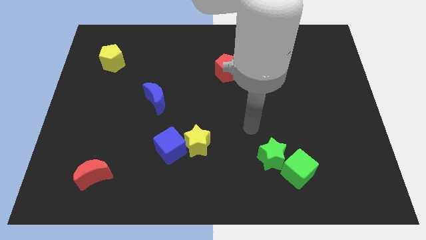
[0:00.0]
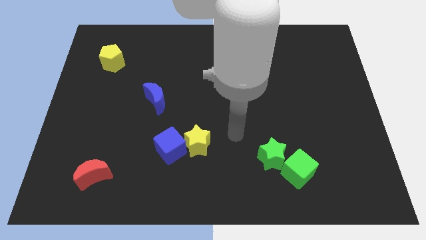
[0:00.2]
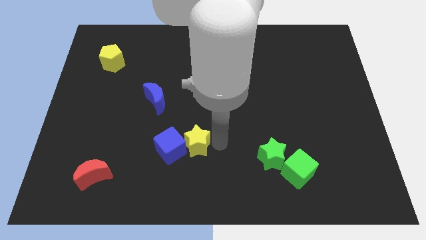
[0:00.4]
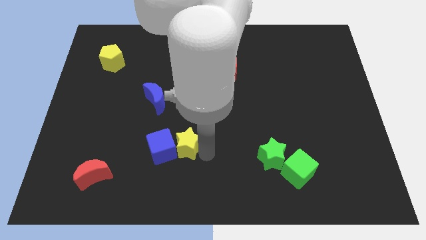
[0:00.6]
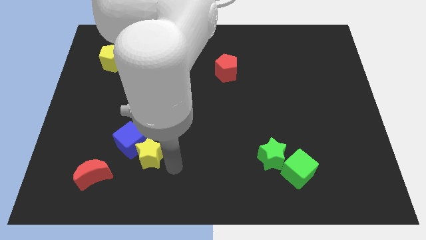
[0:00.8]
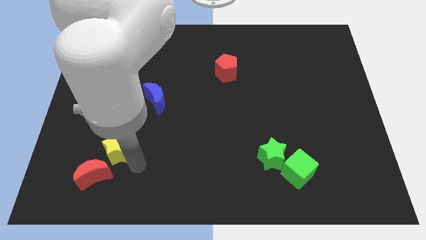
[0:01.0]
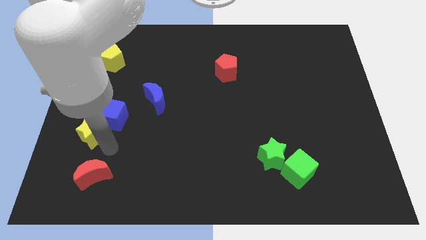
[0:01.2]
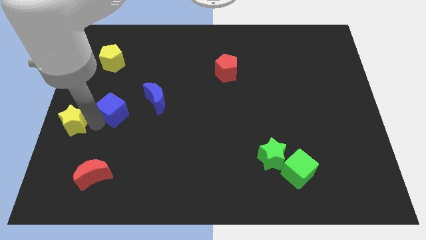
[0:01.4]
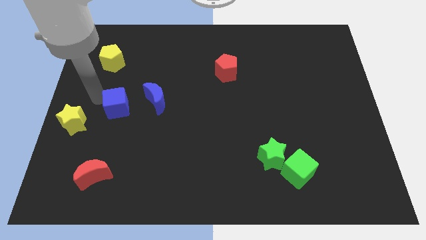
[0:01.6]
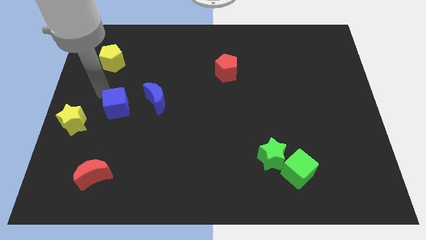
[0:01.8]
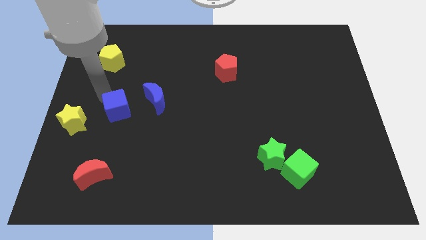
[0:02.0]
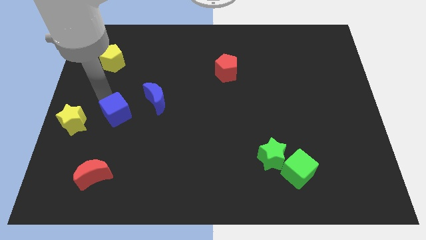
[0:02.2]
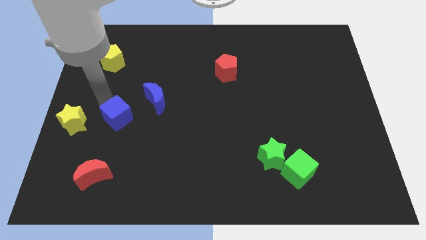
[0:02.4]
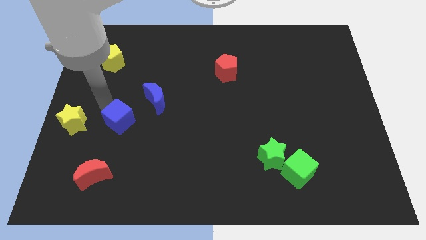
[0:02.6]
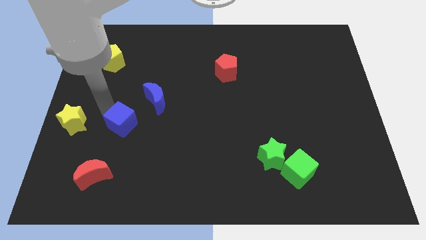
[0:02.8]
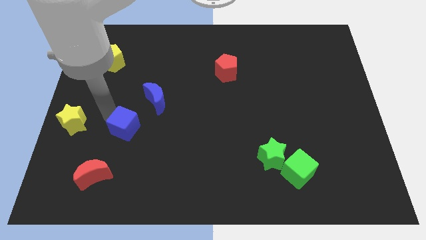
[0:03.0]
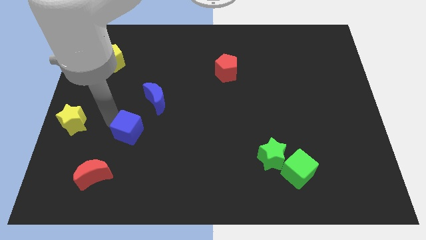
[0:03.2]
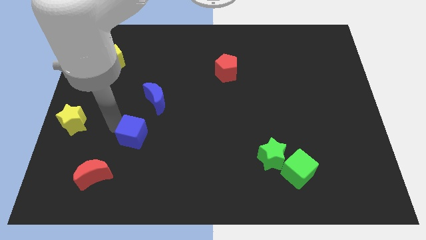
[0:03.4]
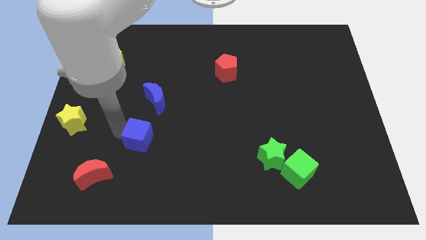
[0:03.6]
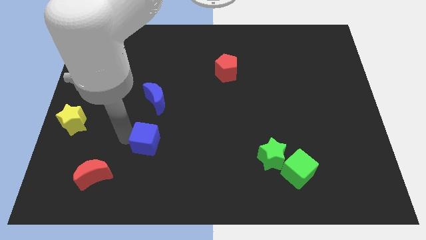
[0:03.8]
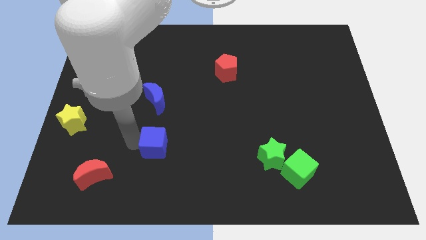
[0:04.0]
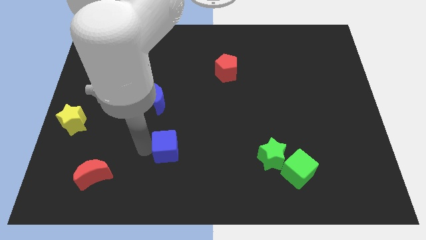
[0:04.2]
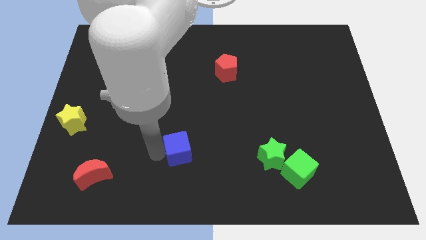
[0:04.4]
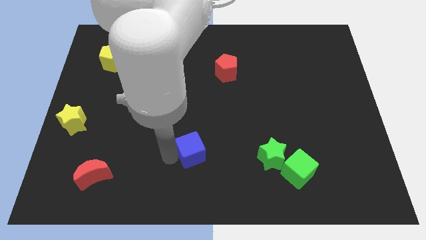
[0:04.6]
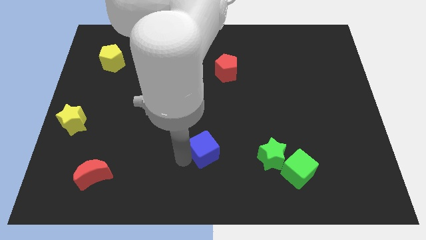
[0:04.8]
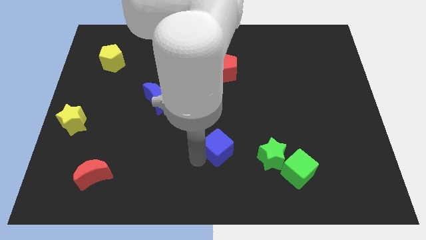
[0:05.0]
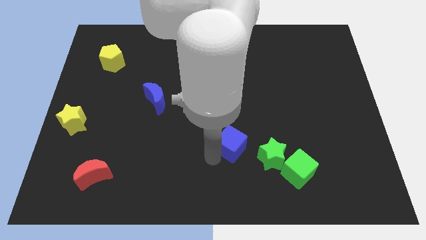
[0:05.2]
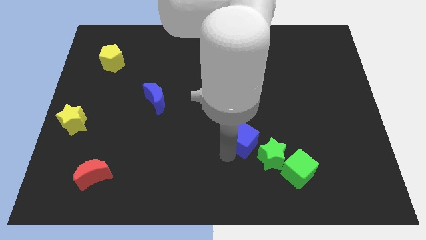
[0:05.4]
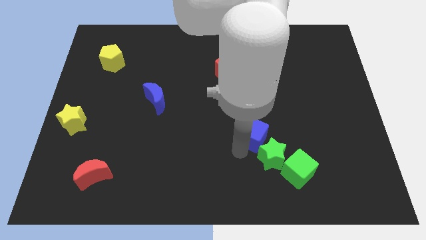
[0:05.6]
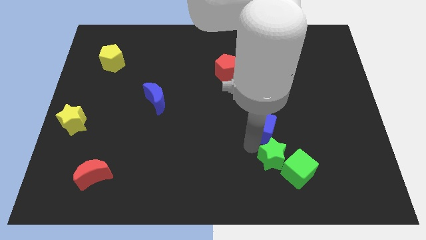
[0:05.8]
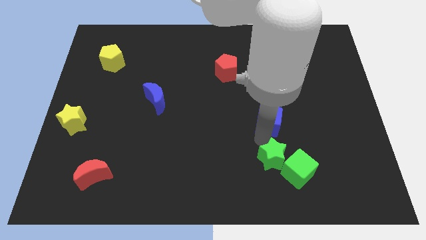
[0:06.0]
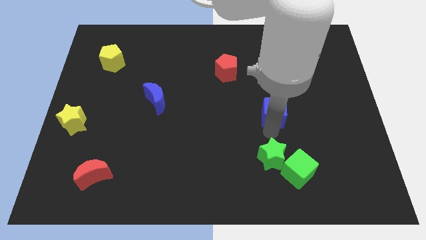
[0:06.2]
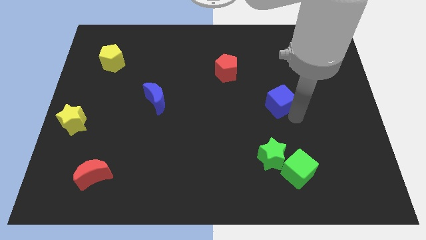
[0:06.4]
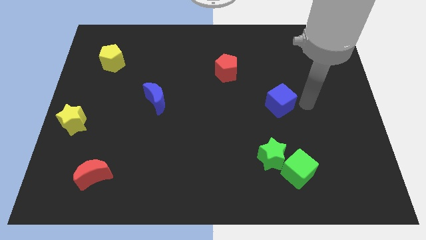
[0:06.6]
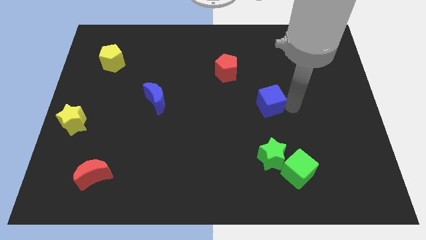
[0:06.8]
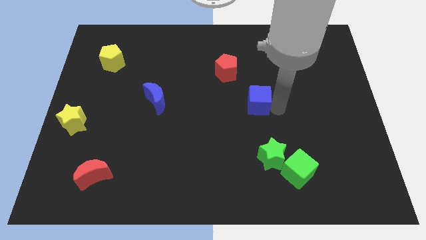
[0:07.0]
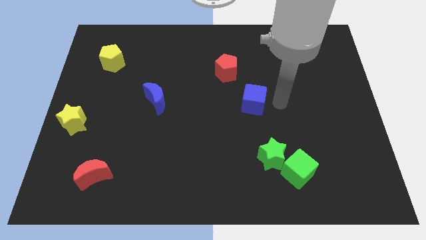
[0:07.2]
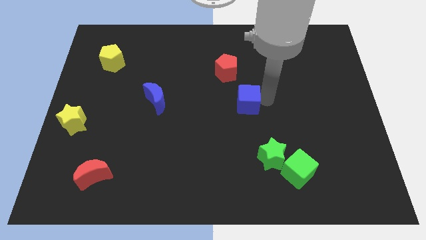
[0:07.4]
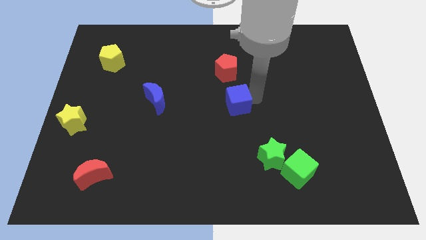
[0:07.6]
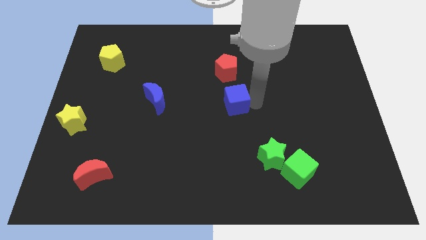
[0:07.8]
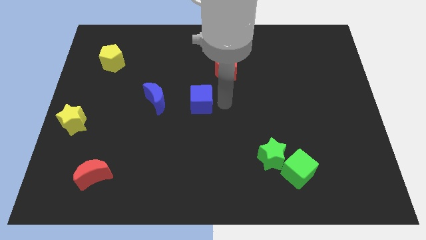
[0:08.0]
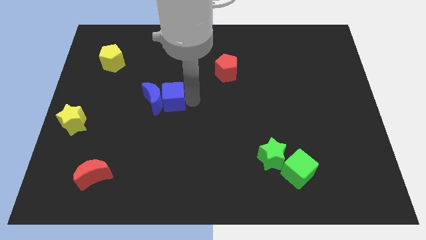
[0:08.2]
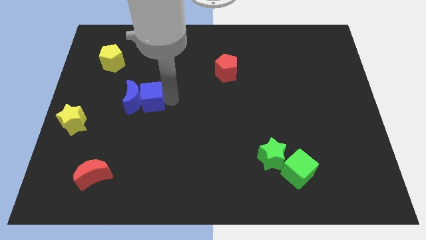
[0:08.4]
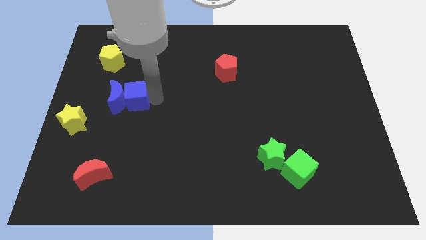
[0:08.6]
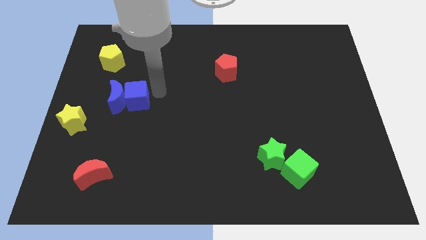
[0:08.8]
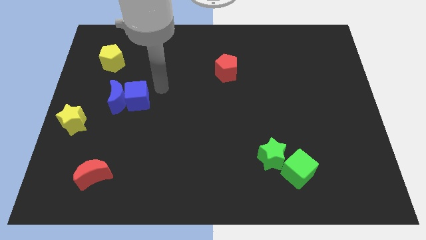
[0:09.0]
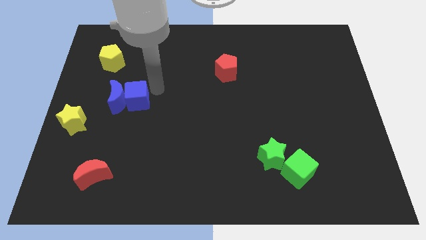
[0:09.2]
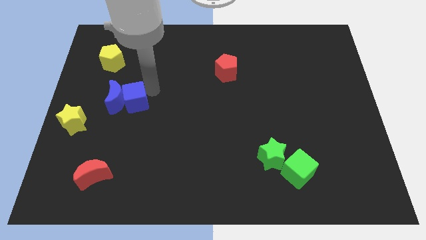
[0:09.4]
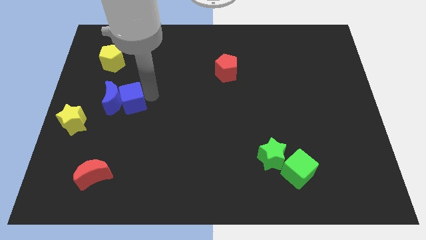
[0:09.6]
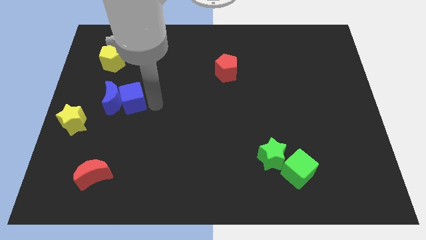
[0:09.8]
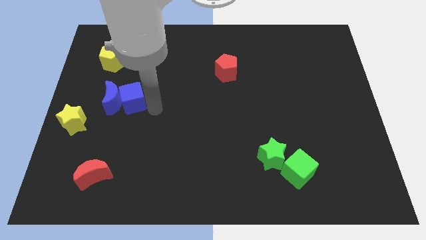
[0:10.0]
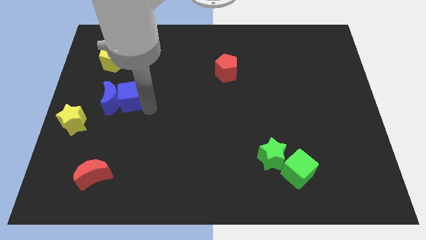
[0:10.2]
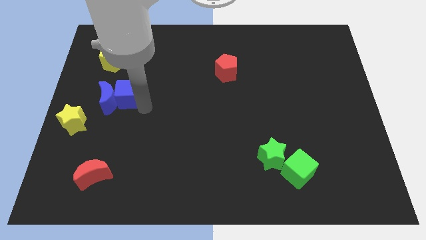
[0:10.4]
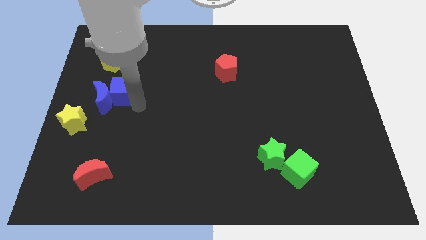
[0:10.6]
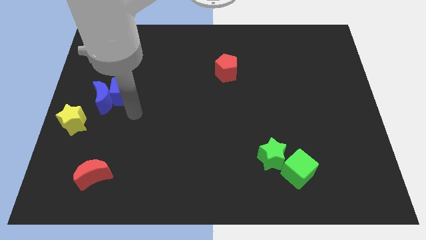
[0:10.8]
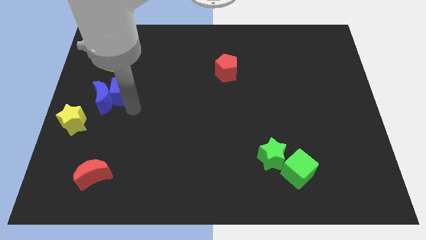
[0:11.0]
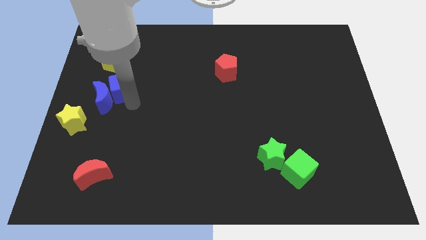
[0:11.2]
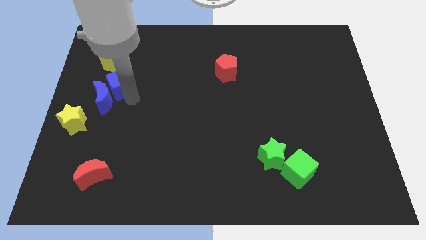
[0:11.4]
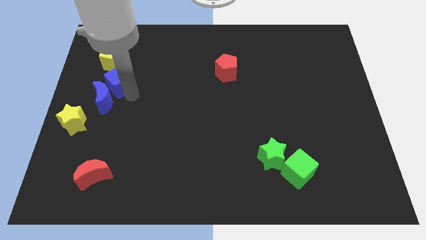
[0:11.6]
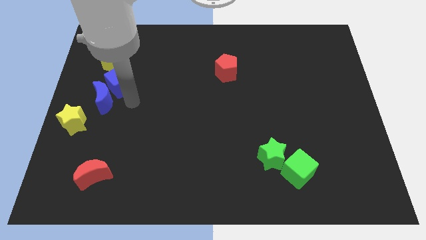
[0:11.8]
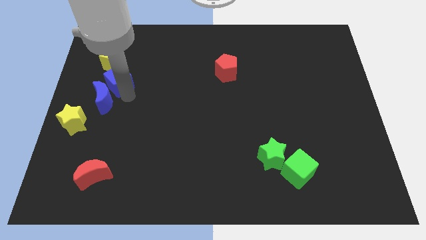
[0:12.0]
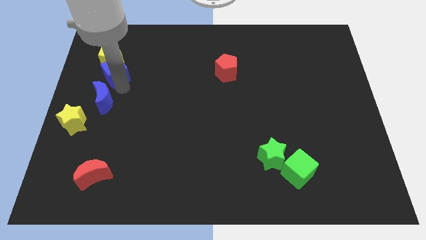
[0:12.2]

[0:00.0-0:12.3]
move the blue cube towards the yellow pentagon

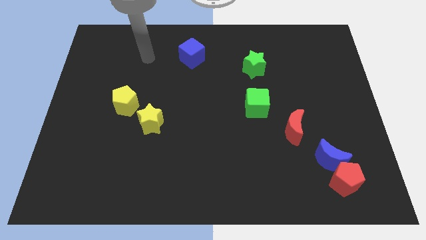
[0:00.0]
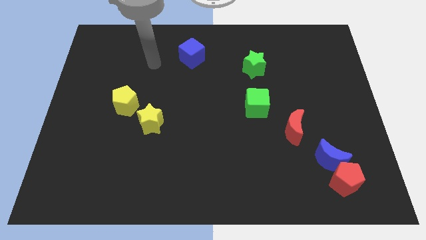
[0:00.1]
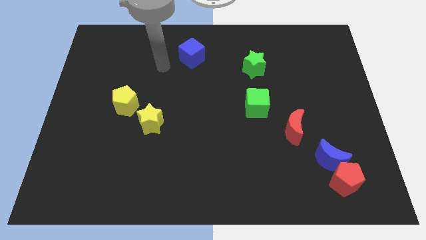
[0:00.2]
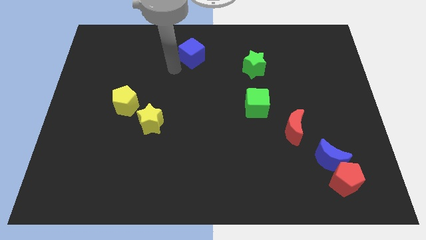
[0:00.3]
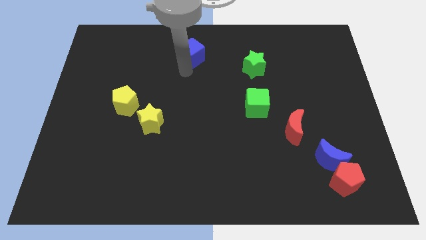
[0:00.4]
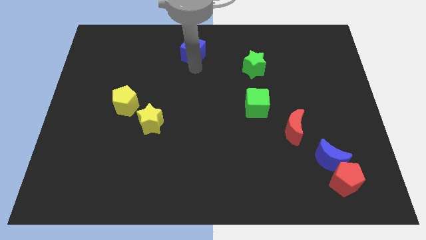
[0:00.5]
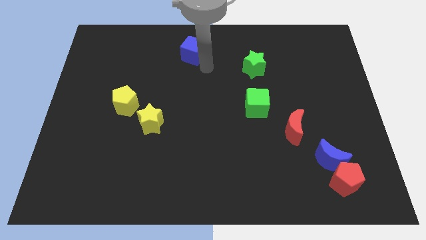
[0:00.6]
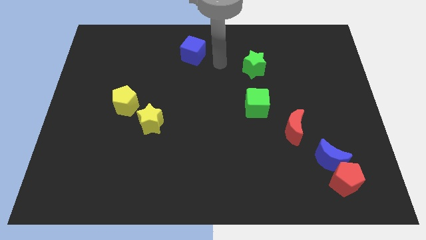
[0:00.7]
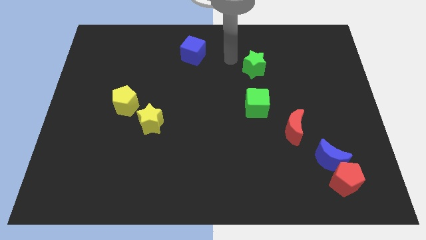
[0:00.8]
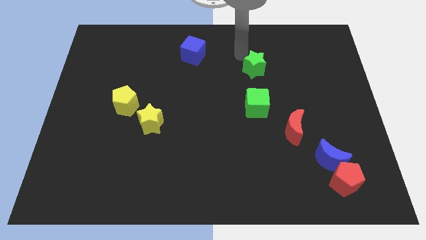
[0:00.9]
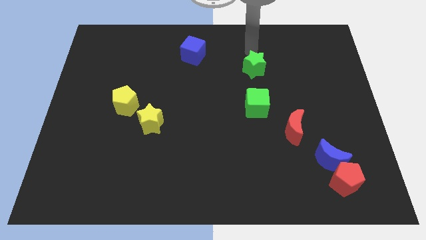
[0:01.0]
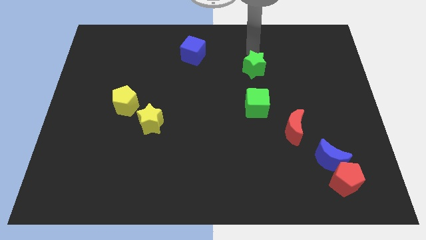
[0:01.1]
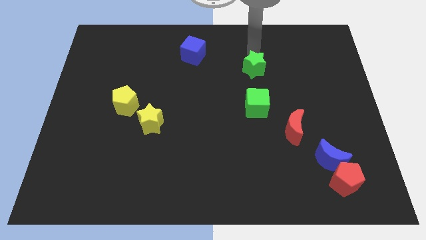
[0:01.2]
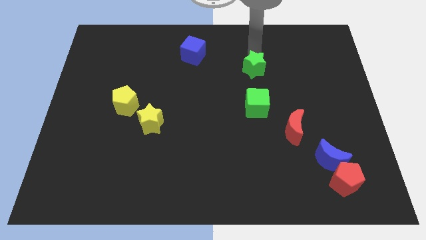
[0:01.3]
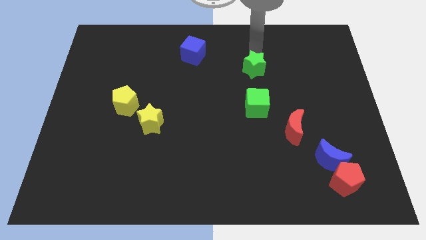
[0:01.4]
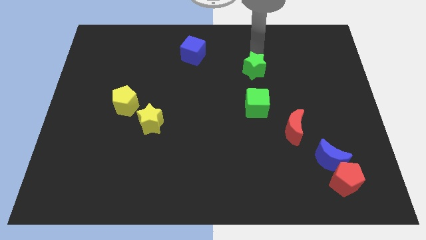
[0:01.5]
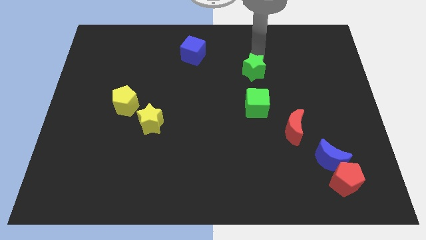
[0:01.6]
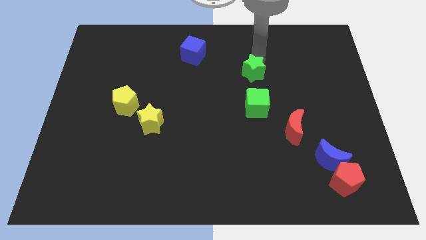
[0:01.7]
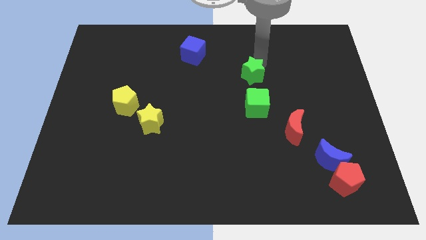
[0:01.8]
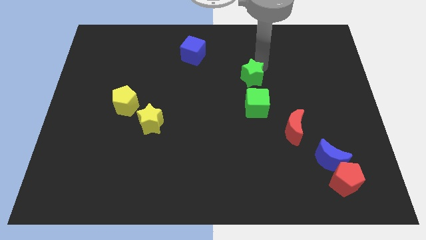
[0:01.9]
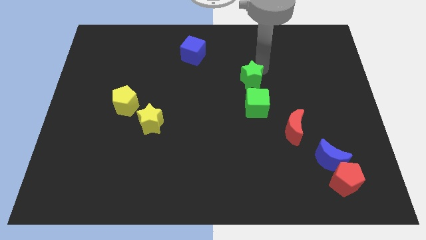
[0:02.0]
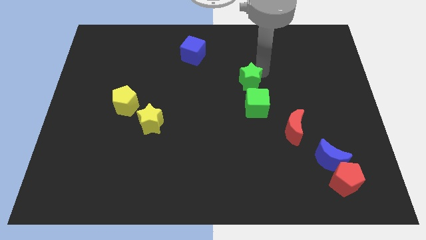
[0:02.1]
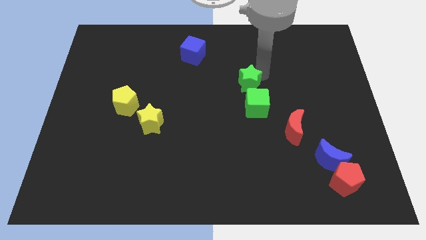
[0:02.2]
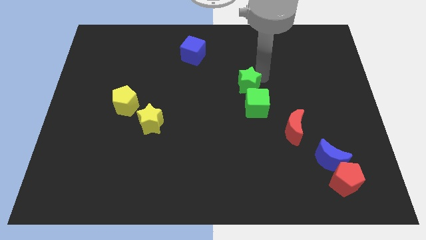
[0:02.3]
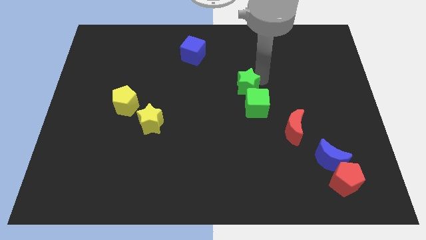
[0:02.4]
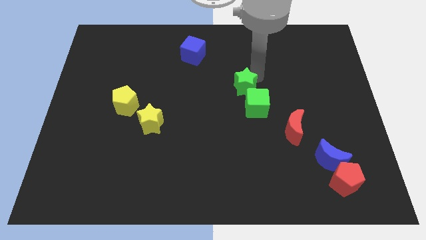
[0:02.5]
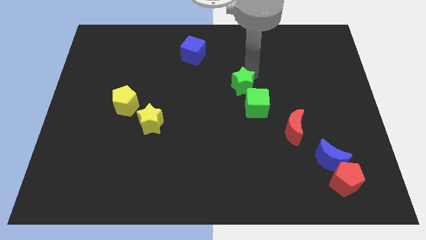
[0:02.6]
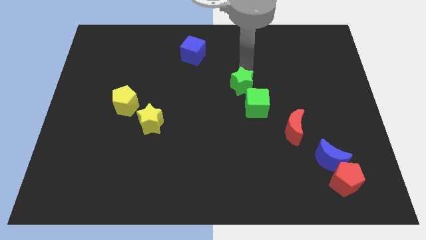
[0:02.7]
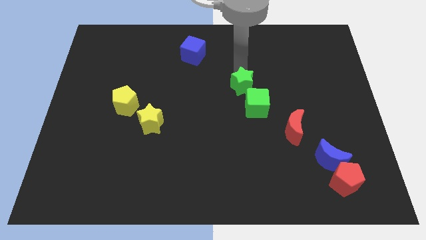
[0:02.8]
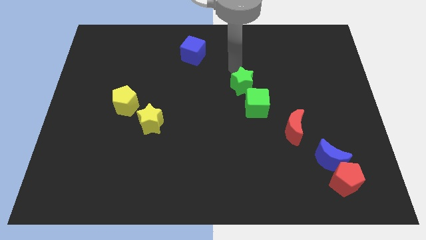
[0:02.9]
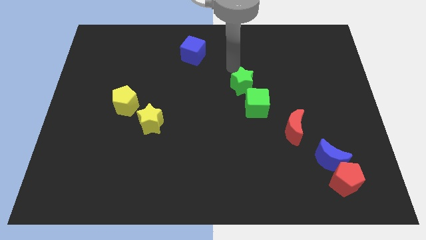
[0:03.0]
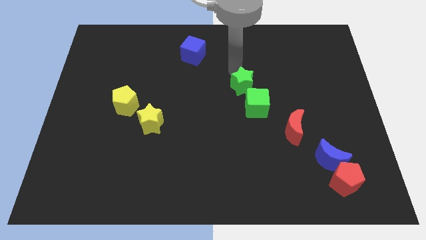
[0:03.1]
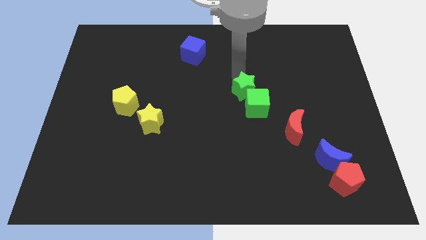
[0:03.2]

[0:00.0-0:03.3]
slide the green star close to the green cube
